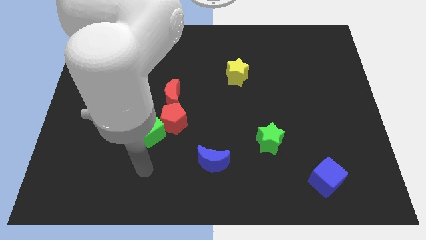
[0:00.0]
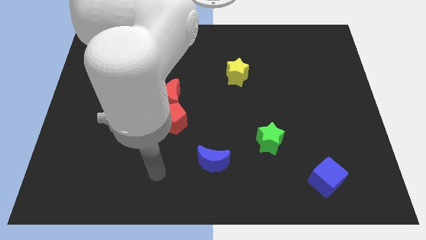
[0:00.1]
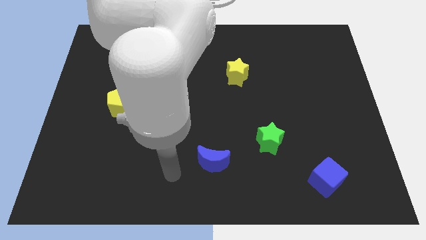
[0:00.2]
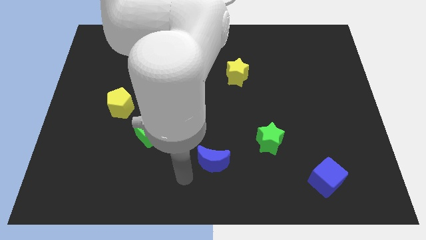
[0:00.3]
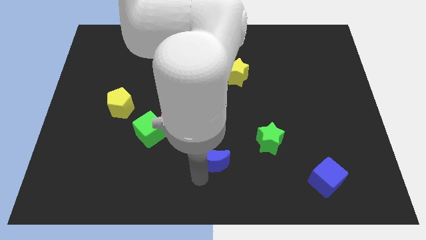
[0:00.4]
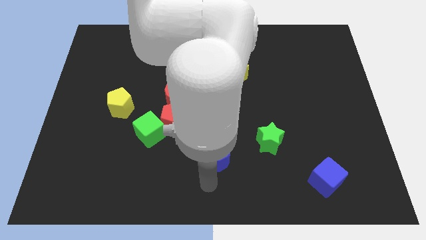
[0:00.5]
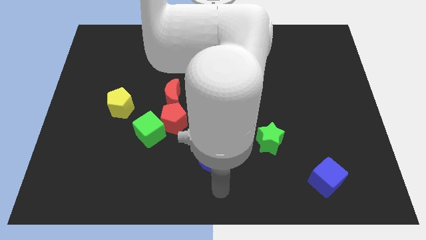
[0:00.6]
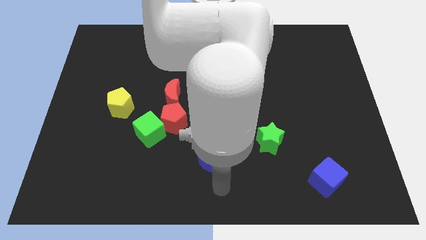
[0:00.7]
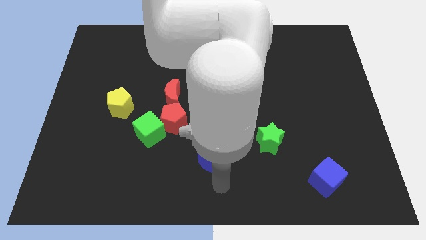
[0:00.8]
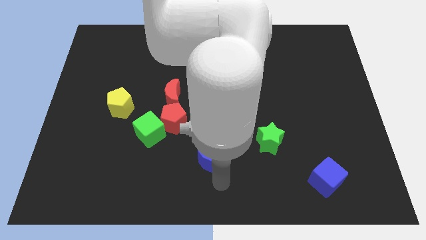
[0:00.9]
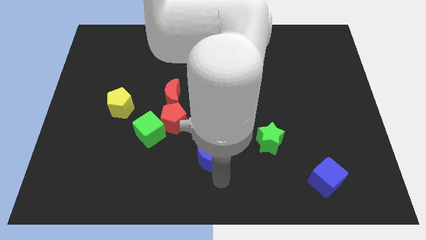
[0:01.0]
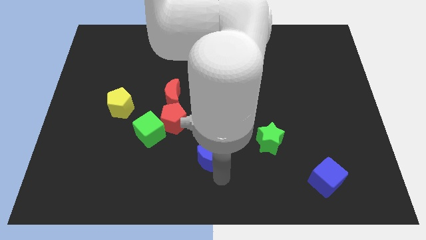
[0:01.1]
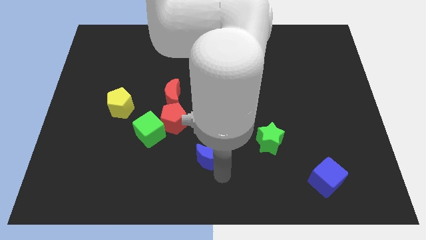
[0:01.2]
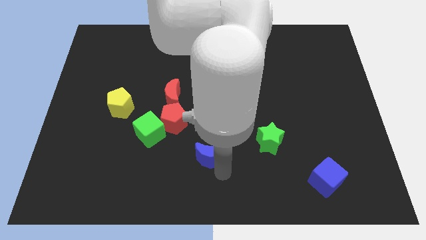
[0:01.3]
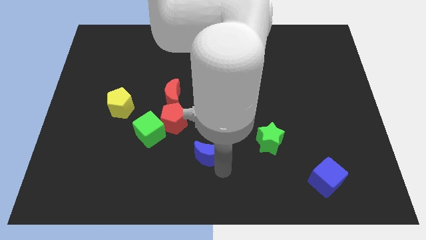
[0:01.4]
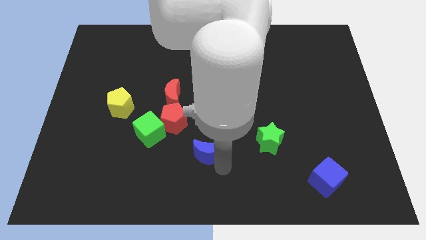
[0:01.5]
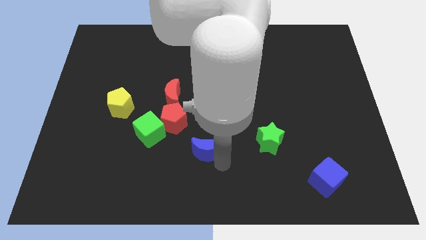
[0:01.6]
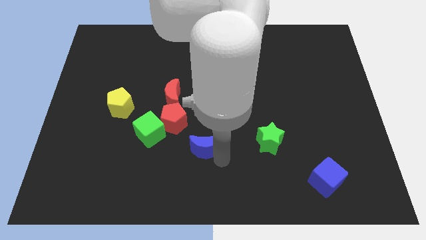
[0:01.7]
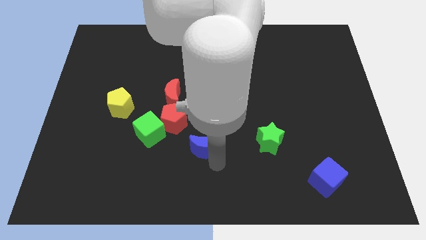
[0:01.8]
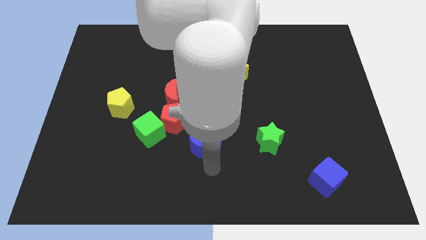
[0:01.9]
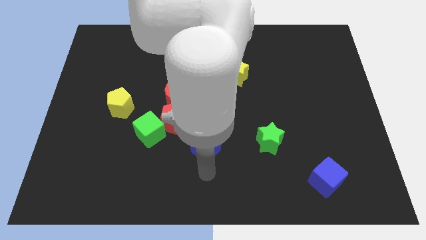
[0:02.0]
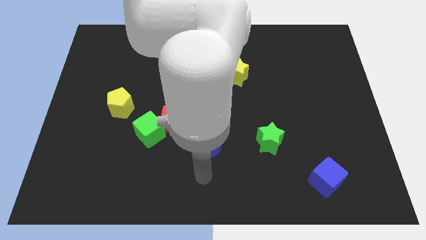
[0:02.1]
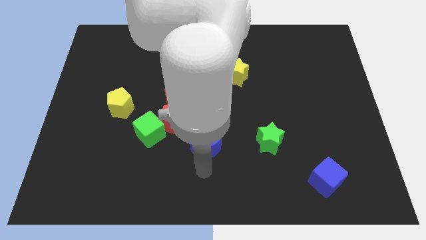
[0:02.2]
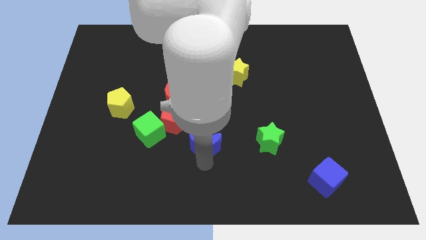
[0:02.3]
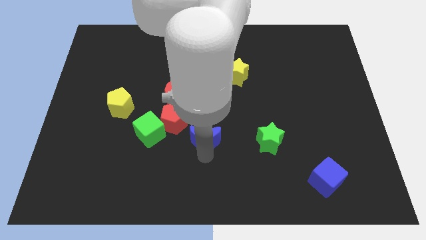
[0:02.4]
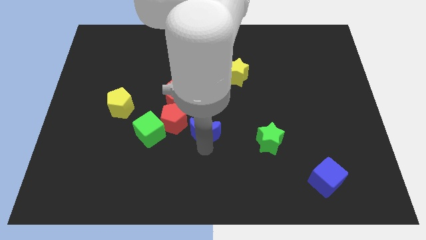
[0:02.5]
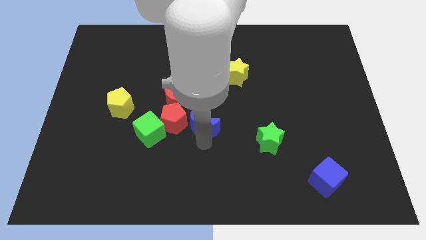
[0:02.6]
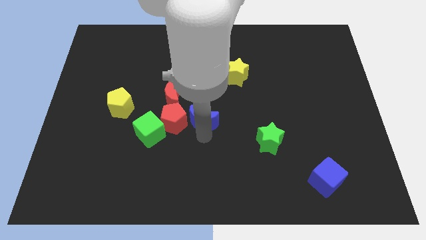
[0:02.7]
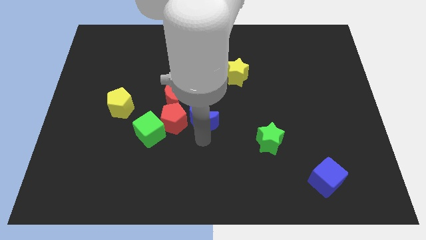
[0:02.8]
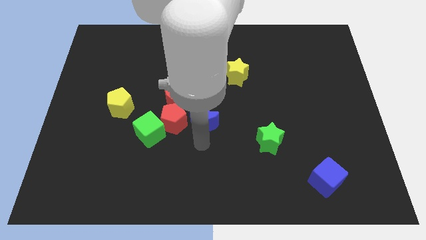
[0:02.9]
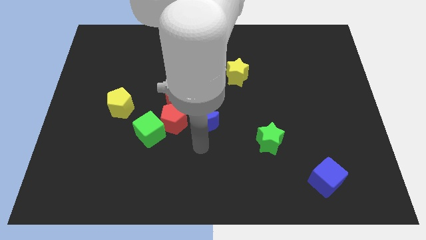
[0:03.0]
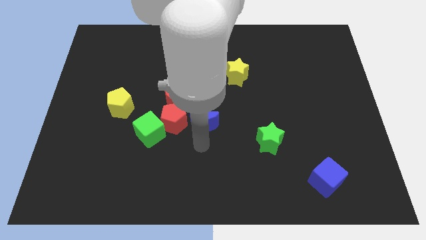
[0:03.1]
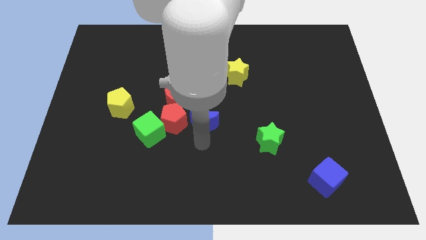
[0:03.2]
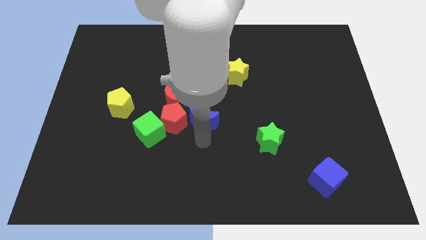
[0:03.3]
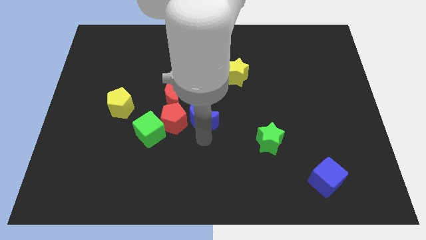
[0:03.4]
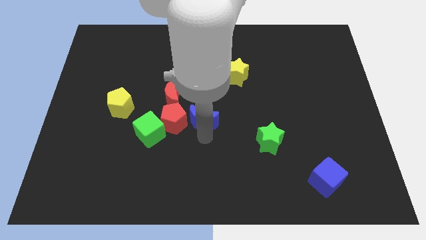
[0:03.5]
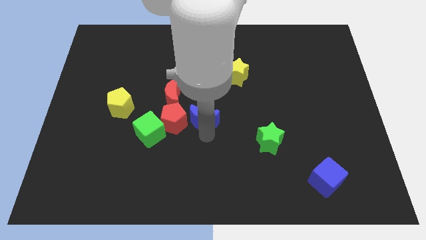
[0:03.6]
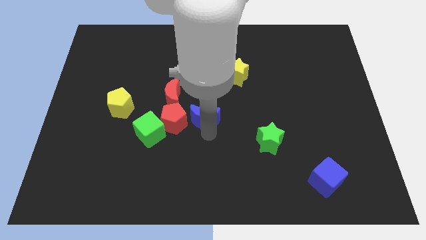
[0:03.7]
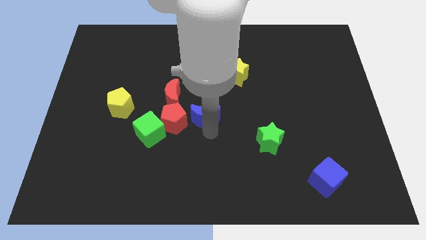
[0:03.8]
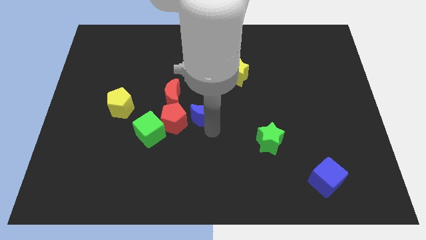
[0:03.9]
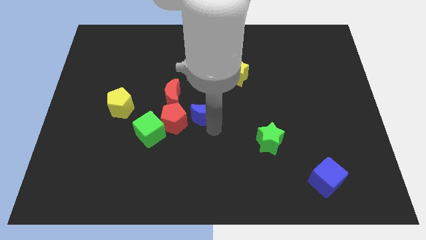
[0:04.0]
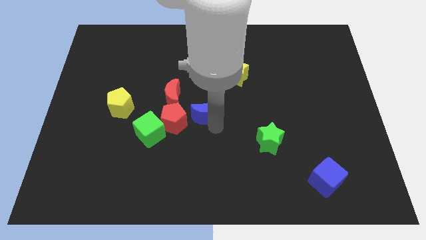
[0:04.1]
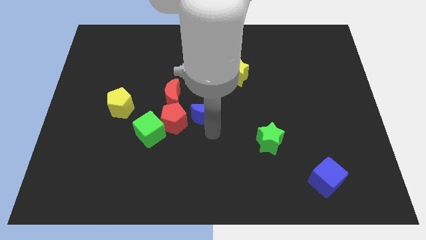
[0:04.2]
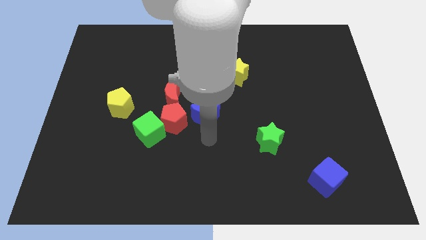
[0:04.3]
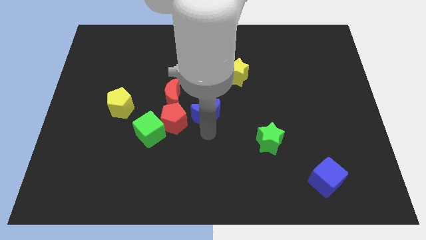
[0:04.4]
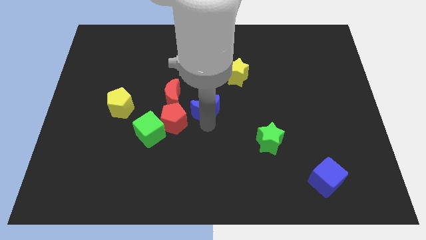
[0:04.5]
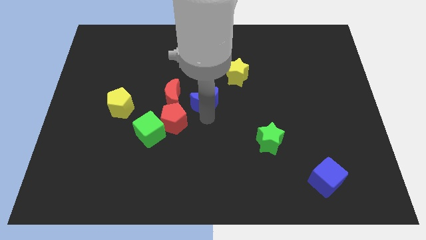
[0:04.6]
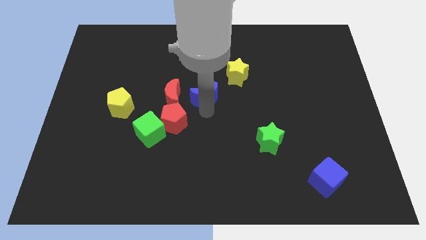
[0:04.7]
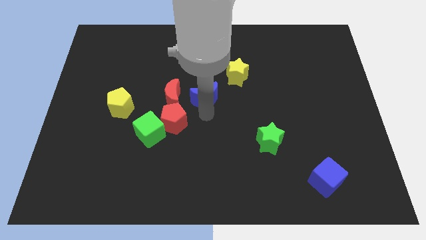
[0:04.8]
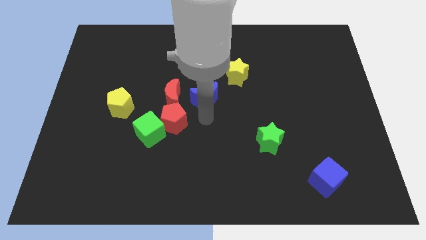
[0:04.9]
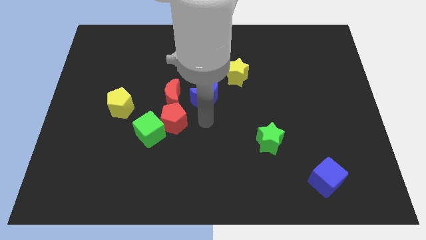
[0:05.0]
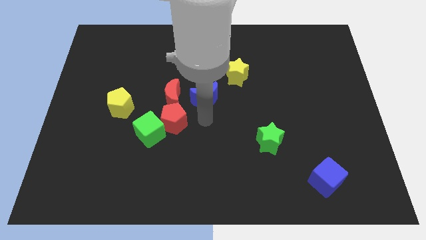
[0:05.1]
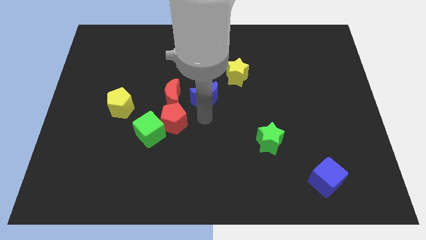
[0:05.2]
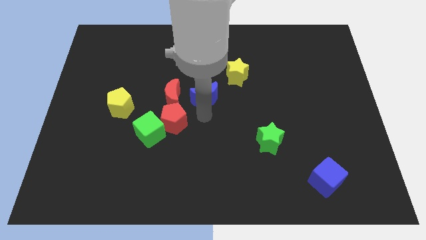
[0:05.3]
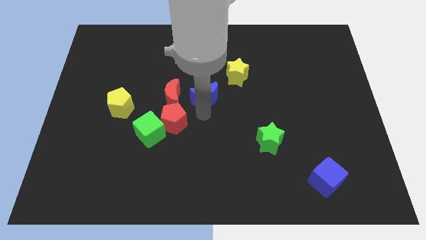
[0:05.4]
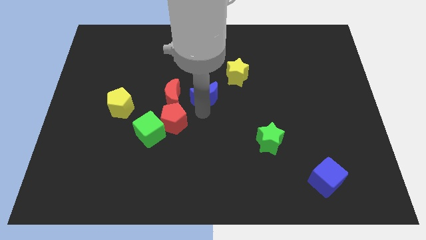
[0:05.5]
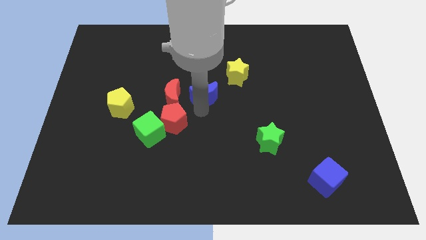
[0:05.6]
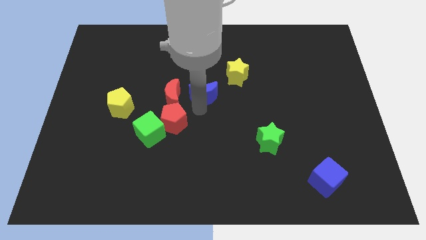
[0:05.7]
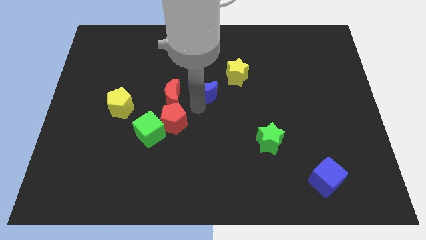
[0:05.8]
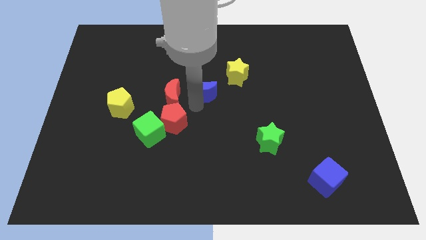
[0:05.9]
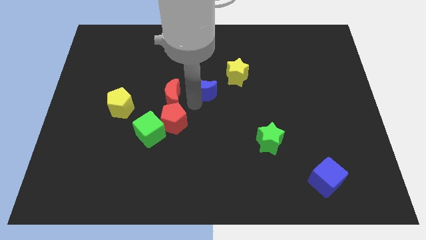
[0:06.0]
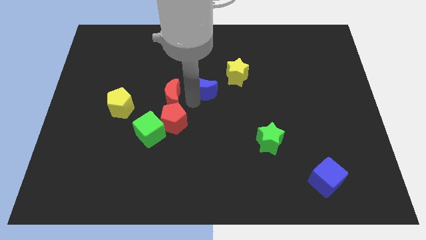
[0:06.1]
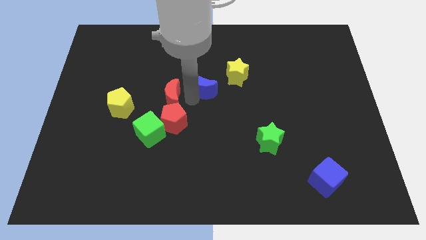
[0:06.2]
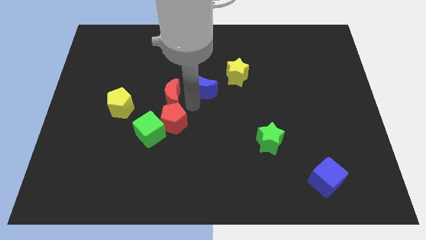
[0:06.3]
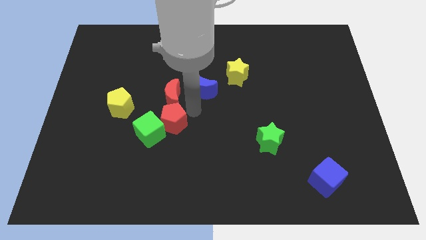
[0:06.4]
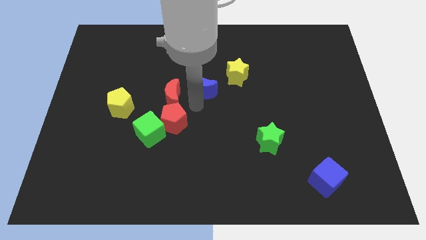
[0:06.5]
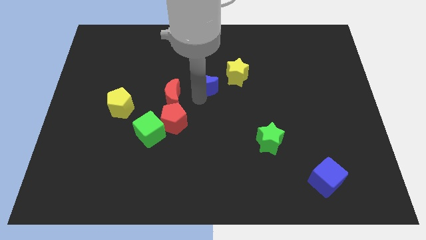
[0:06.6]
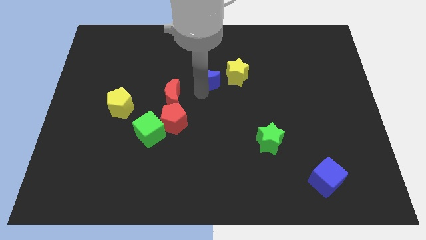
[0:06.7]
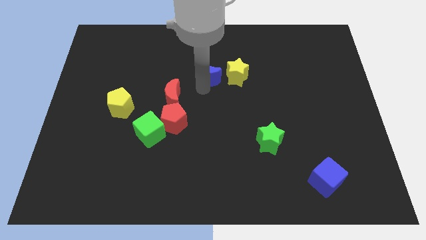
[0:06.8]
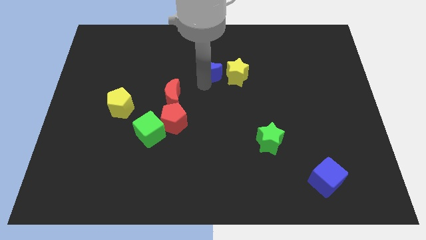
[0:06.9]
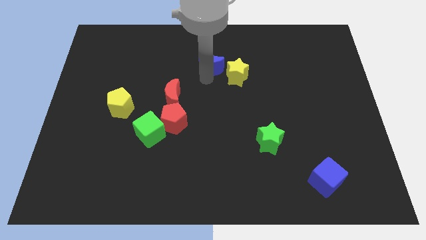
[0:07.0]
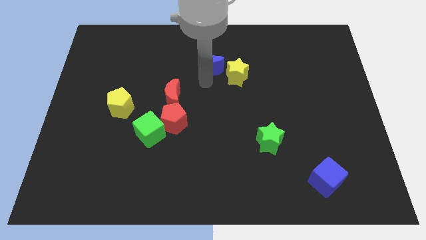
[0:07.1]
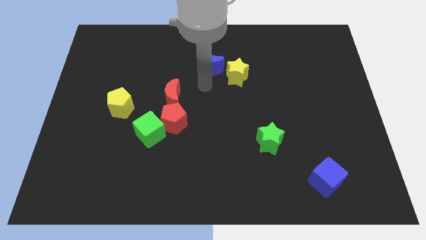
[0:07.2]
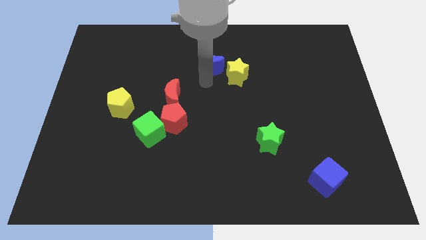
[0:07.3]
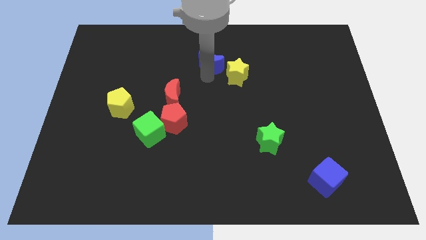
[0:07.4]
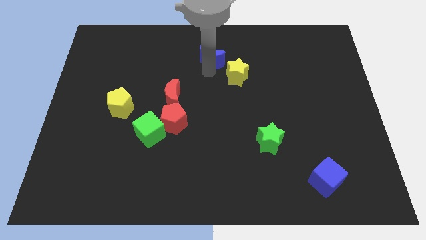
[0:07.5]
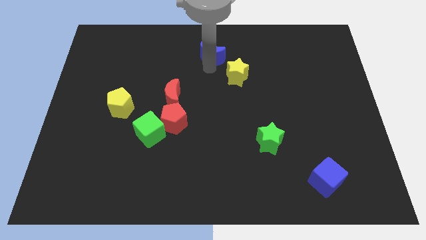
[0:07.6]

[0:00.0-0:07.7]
push the blue moon to the top
